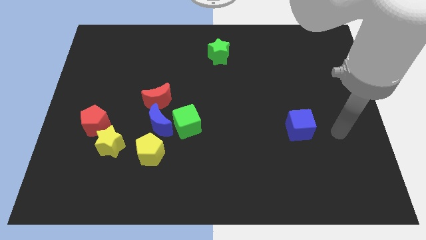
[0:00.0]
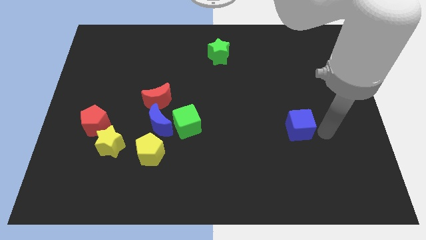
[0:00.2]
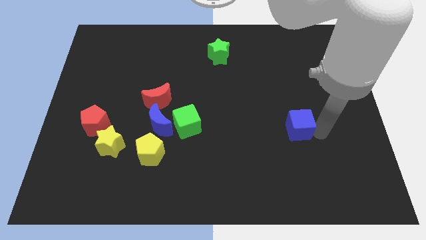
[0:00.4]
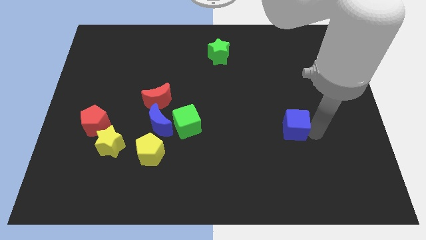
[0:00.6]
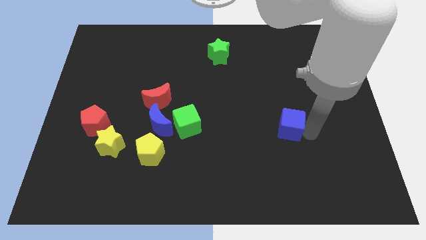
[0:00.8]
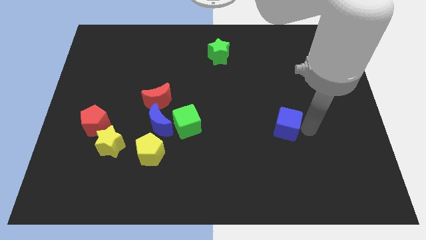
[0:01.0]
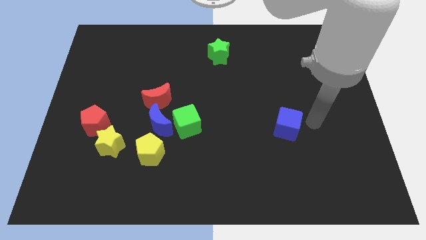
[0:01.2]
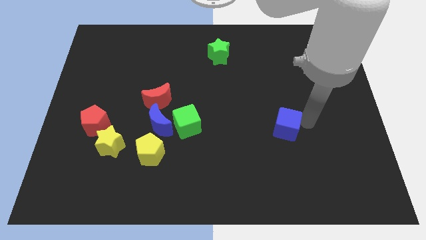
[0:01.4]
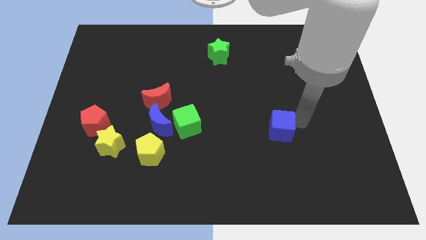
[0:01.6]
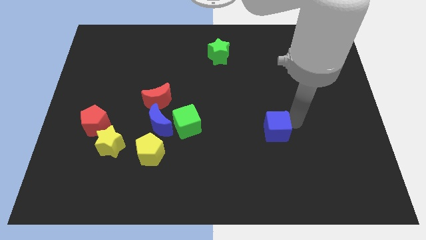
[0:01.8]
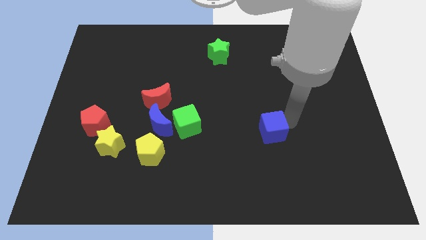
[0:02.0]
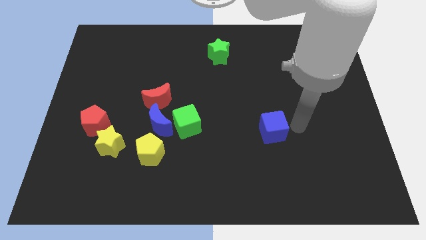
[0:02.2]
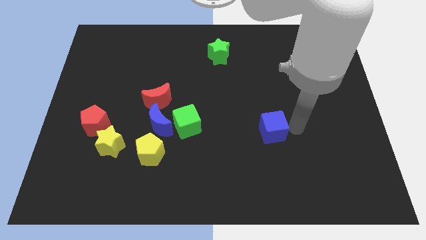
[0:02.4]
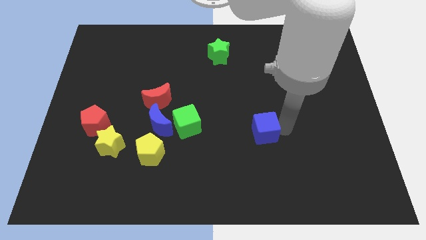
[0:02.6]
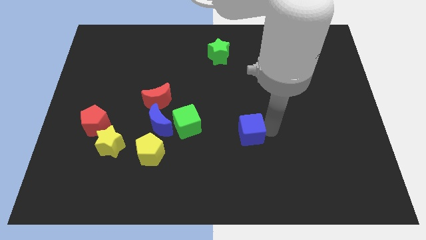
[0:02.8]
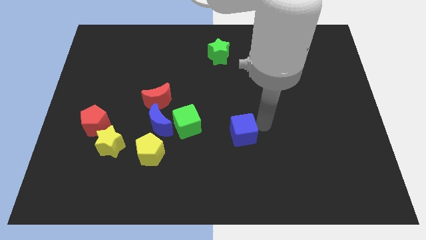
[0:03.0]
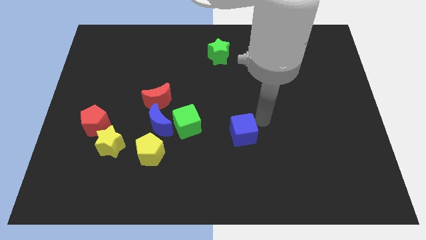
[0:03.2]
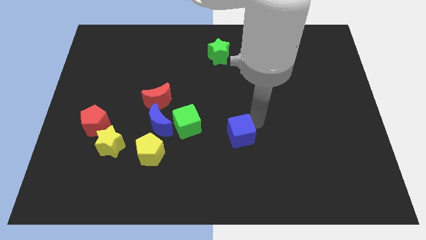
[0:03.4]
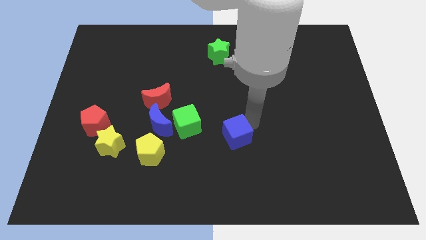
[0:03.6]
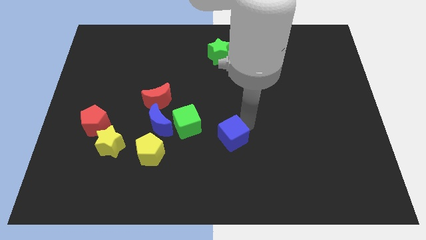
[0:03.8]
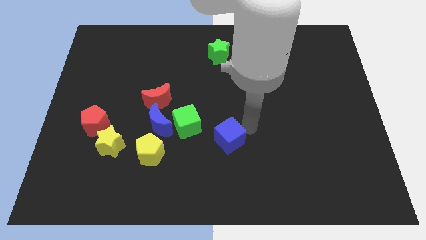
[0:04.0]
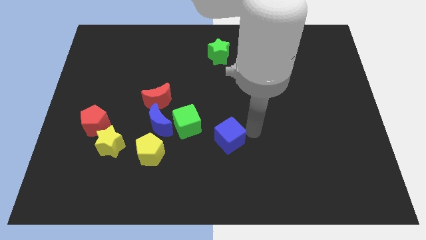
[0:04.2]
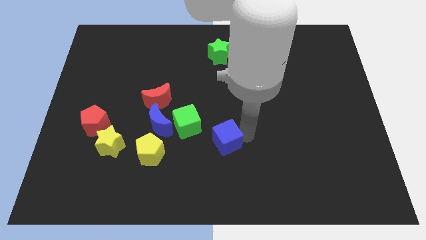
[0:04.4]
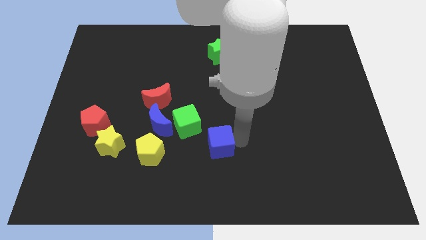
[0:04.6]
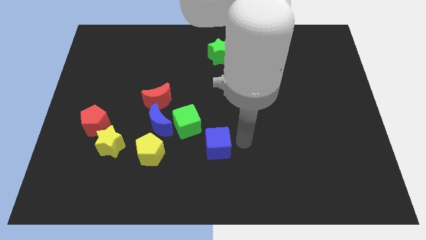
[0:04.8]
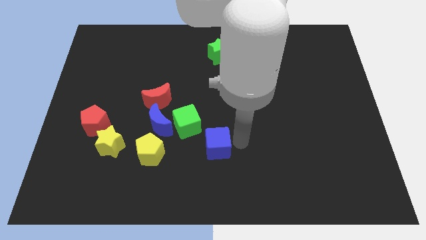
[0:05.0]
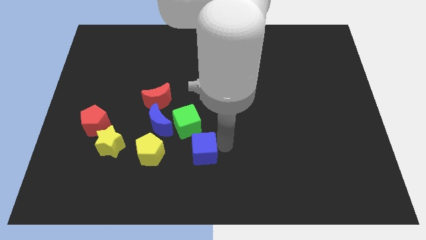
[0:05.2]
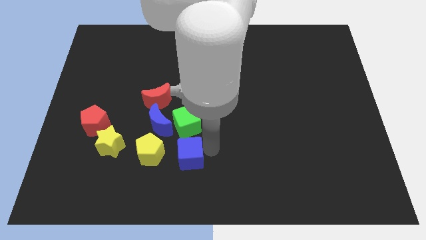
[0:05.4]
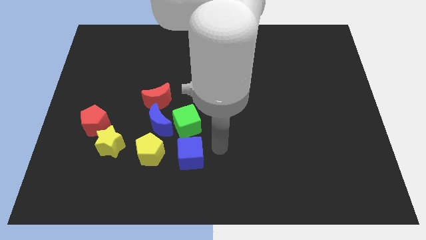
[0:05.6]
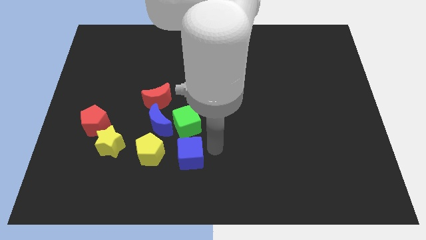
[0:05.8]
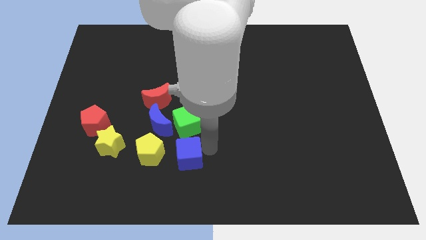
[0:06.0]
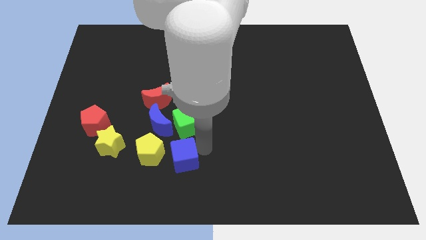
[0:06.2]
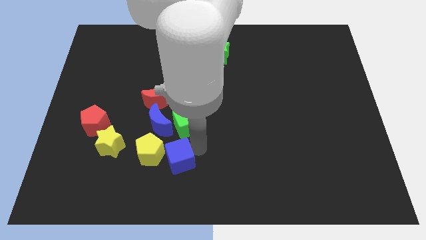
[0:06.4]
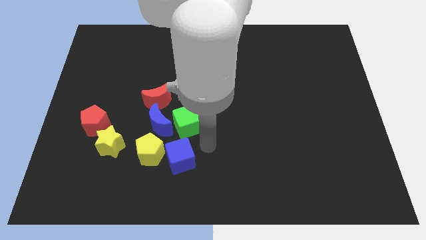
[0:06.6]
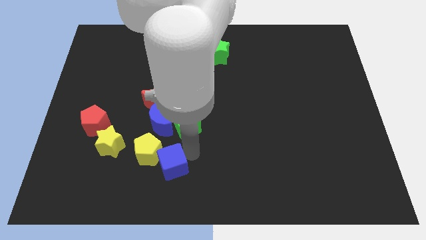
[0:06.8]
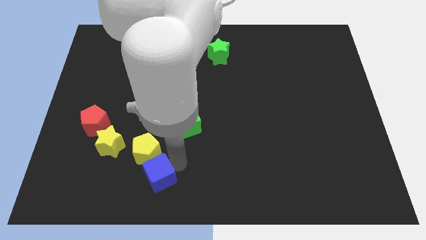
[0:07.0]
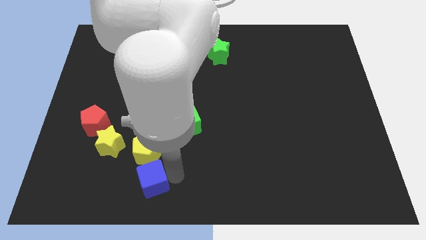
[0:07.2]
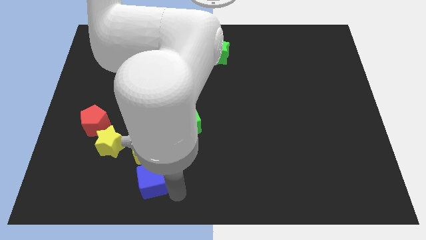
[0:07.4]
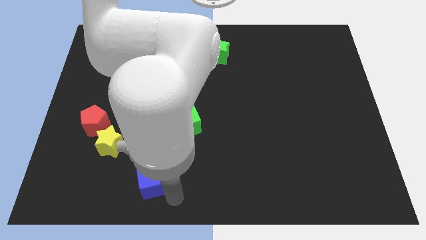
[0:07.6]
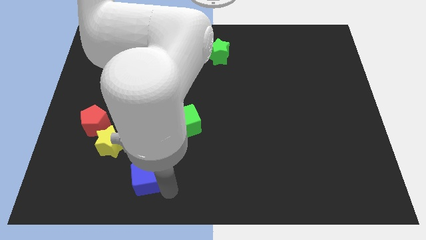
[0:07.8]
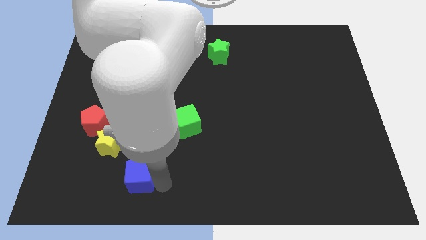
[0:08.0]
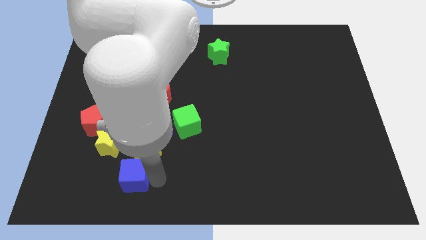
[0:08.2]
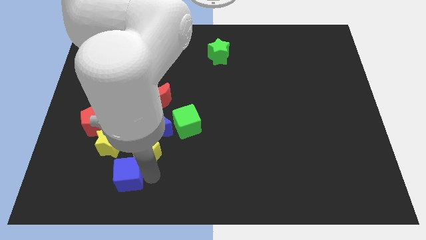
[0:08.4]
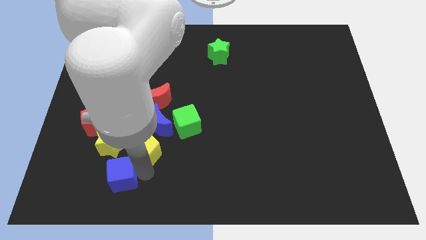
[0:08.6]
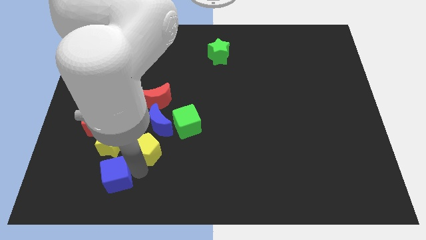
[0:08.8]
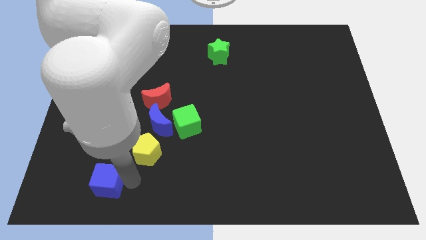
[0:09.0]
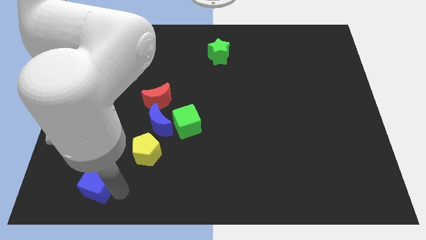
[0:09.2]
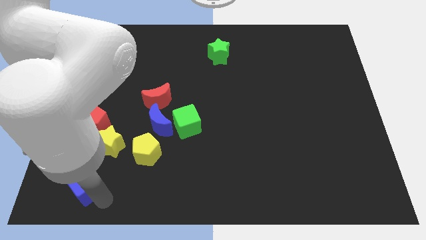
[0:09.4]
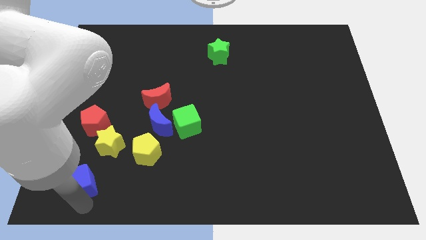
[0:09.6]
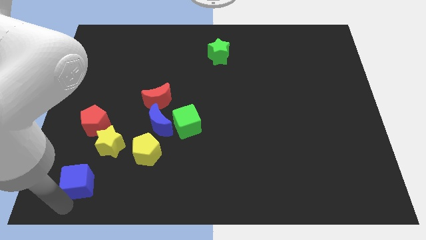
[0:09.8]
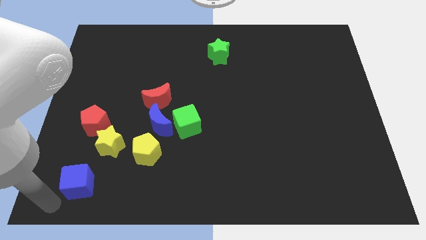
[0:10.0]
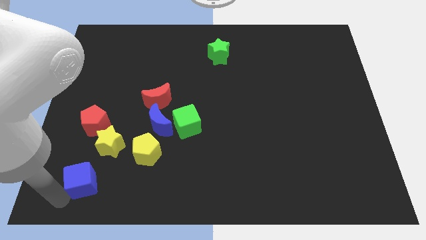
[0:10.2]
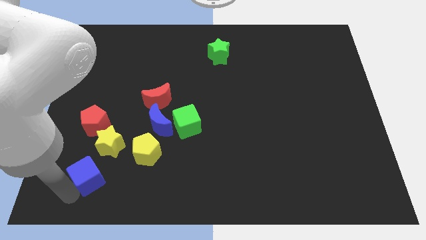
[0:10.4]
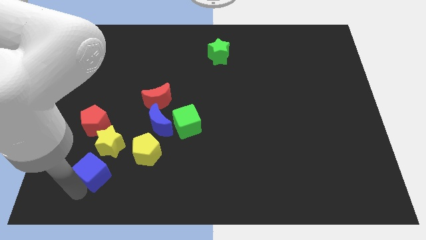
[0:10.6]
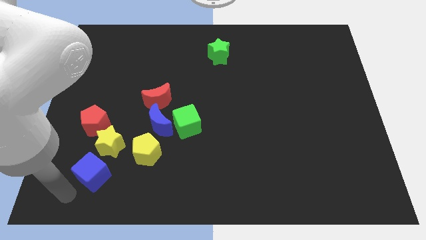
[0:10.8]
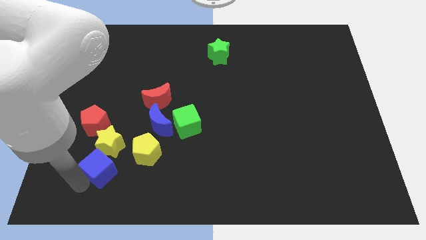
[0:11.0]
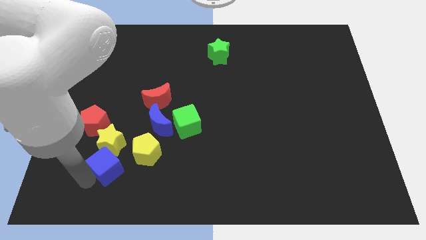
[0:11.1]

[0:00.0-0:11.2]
slide the blue cube next to the yellow star
